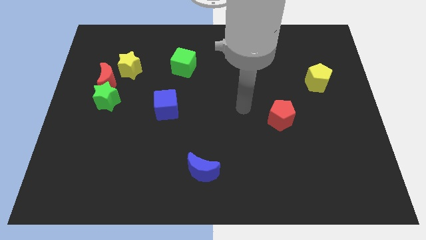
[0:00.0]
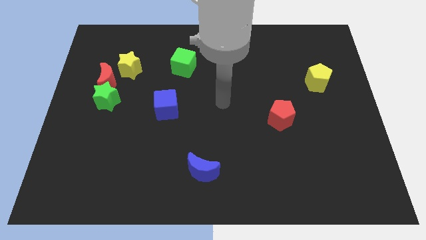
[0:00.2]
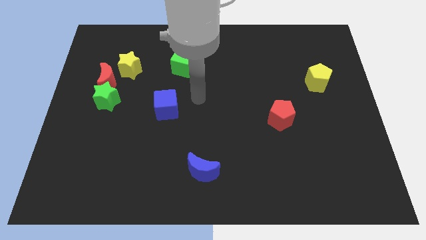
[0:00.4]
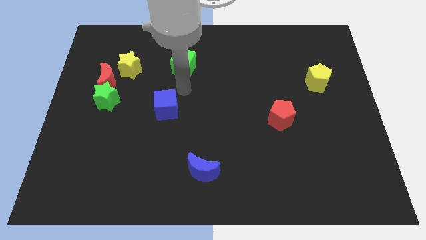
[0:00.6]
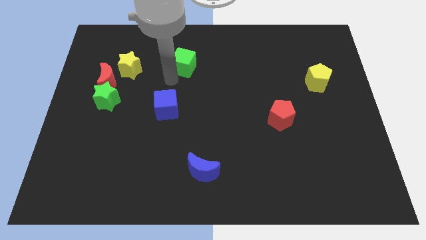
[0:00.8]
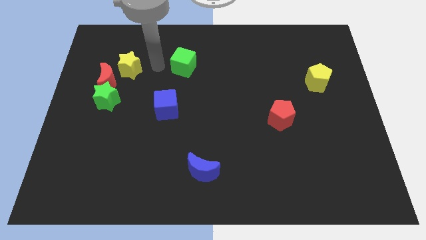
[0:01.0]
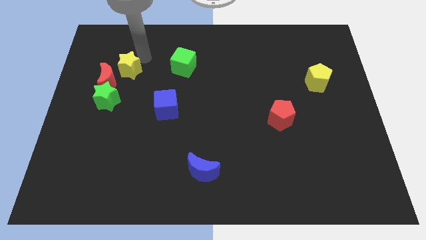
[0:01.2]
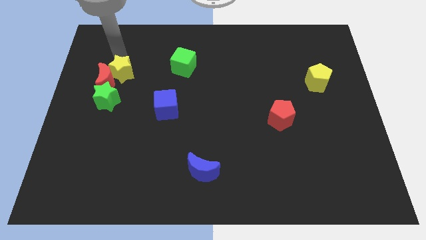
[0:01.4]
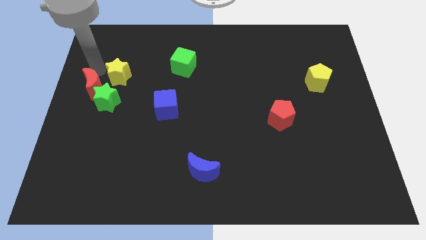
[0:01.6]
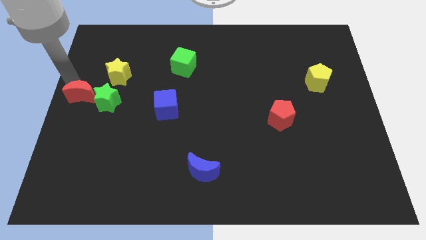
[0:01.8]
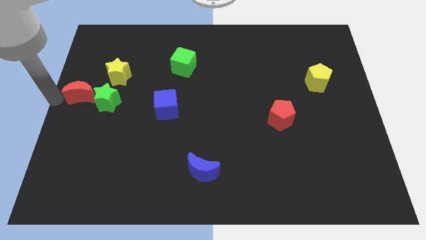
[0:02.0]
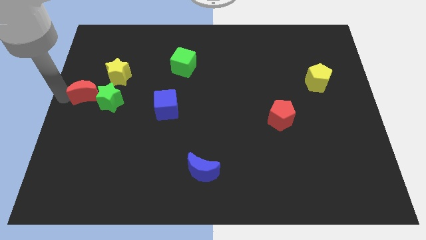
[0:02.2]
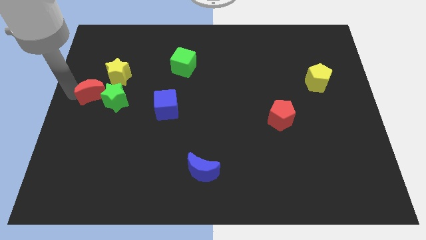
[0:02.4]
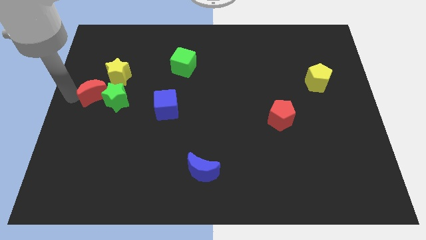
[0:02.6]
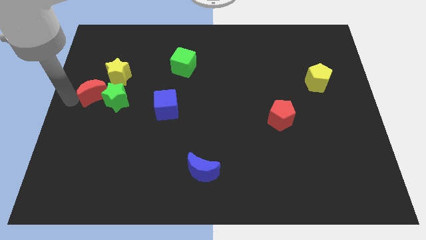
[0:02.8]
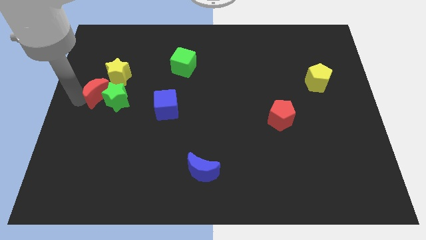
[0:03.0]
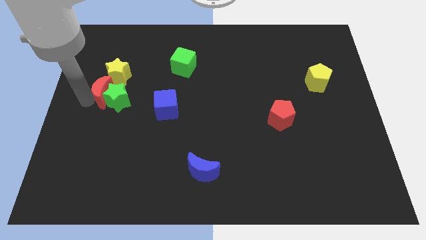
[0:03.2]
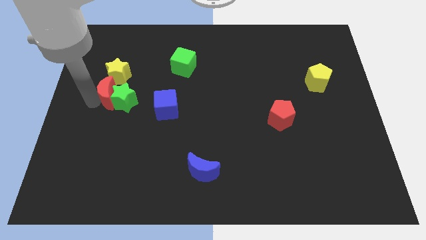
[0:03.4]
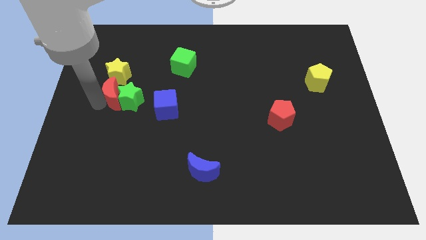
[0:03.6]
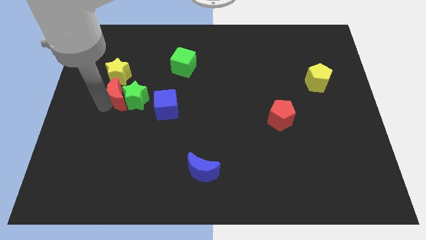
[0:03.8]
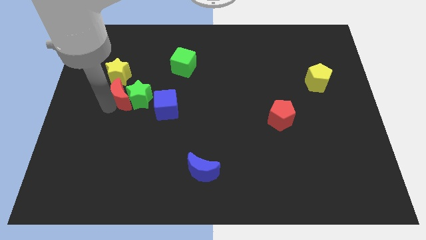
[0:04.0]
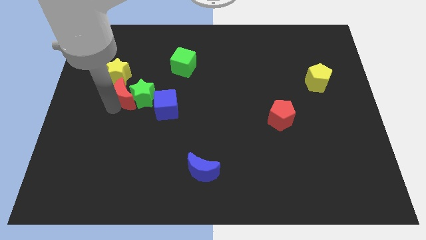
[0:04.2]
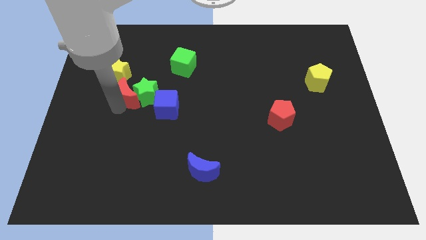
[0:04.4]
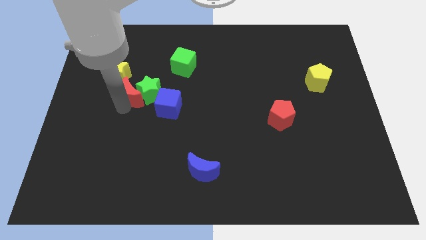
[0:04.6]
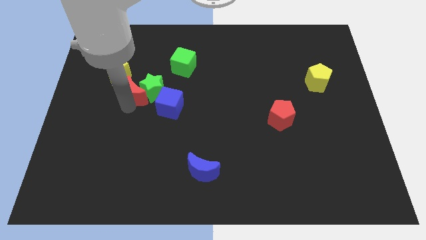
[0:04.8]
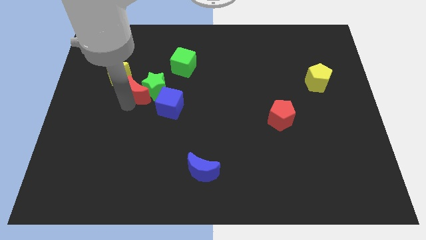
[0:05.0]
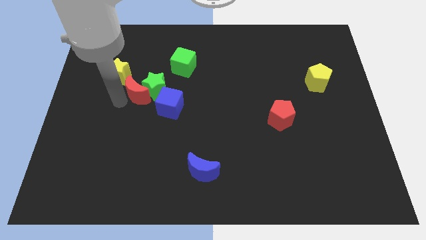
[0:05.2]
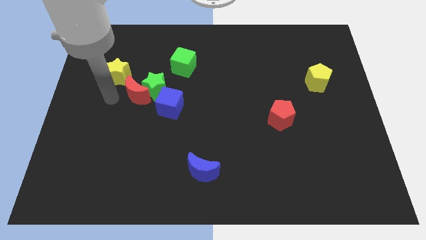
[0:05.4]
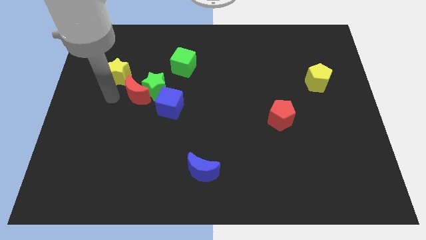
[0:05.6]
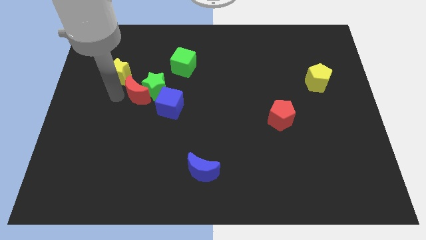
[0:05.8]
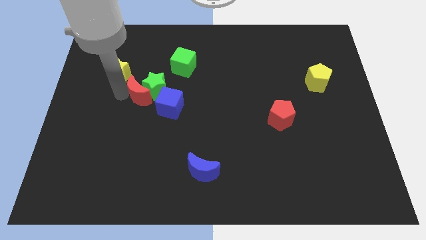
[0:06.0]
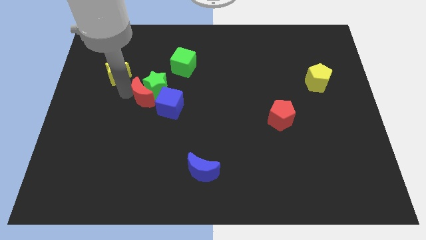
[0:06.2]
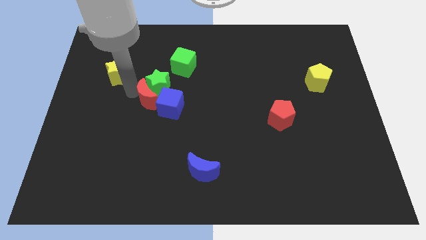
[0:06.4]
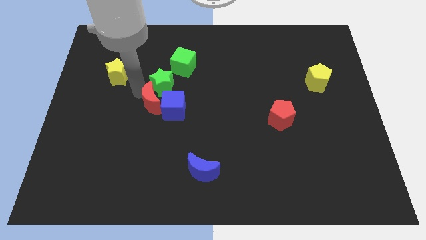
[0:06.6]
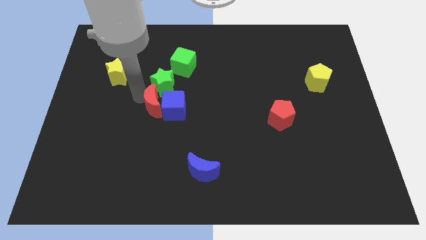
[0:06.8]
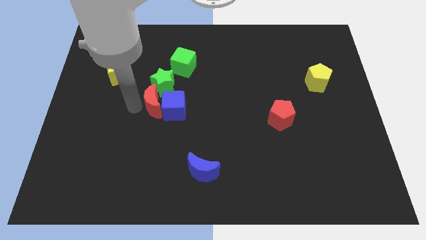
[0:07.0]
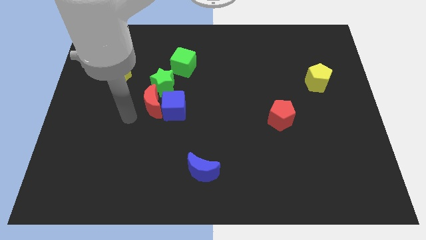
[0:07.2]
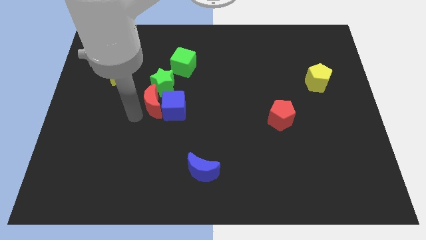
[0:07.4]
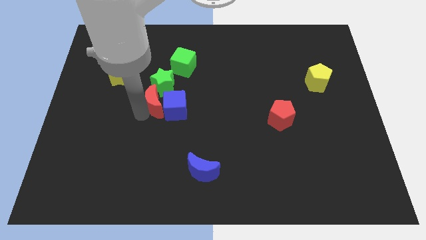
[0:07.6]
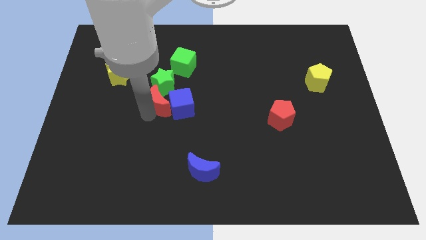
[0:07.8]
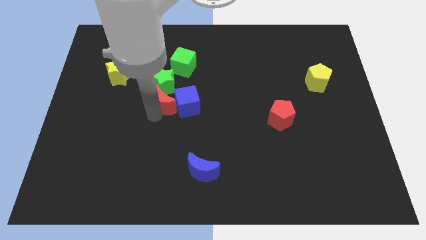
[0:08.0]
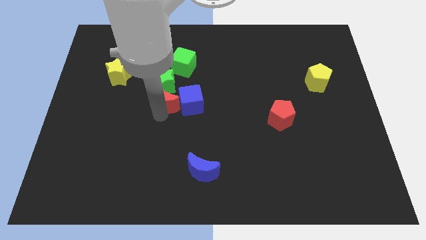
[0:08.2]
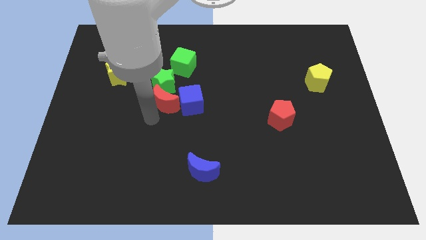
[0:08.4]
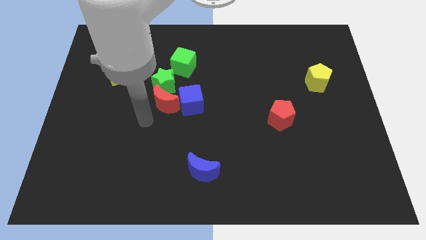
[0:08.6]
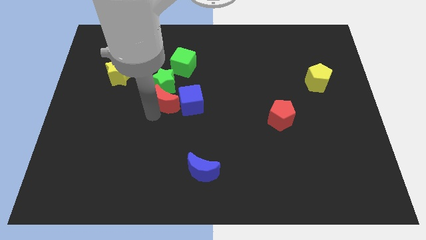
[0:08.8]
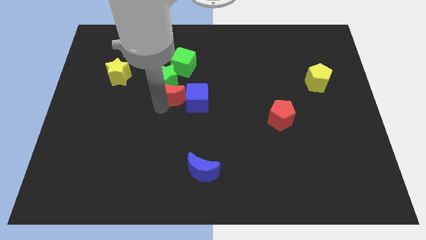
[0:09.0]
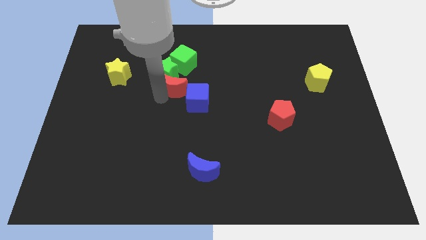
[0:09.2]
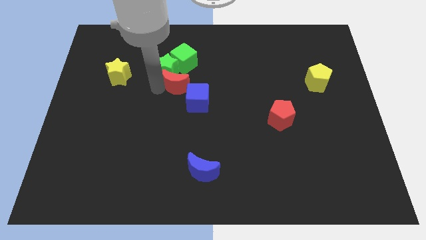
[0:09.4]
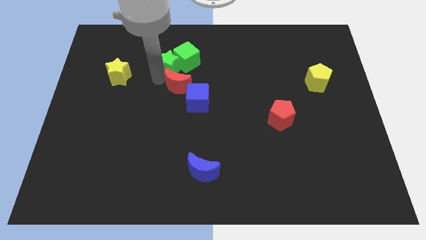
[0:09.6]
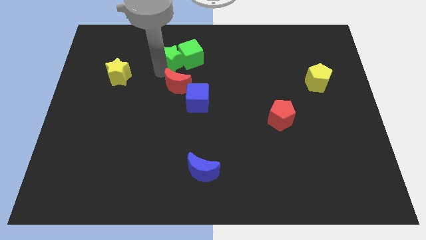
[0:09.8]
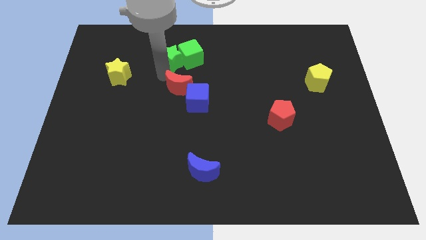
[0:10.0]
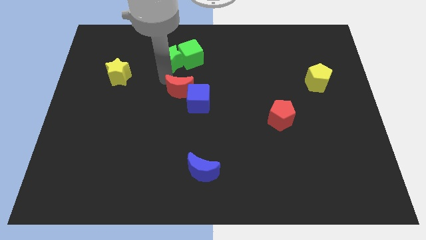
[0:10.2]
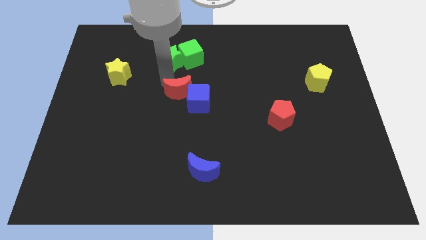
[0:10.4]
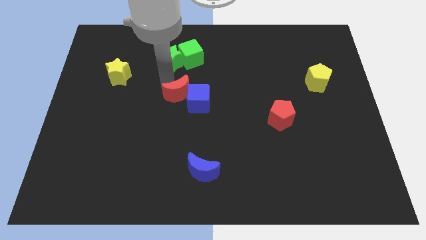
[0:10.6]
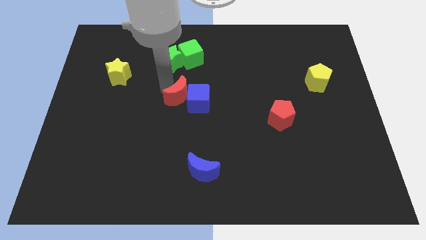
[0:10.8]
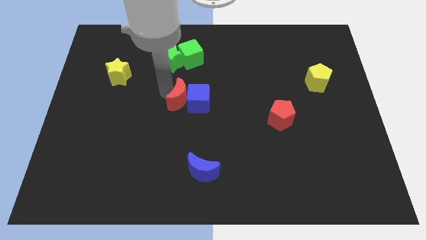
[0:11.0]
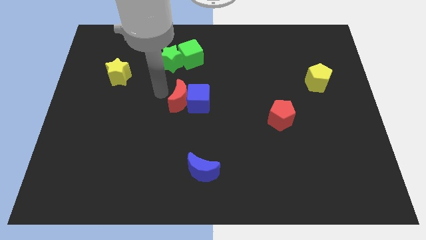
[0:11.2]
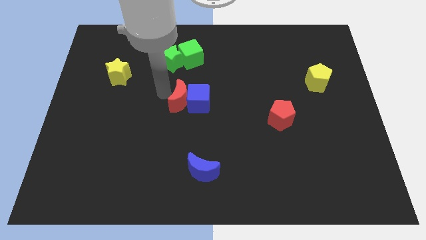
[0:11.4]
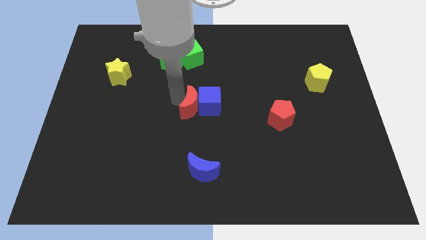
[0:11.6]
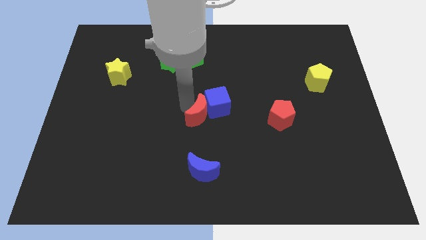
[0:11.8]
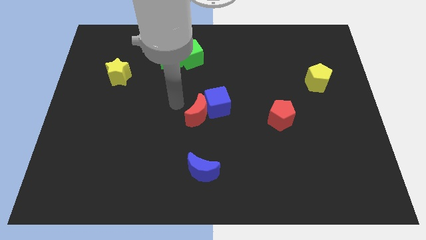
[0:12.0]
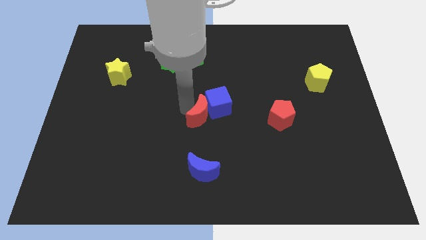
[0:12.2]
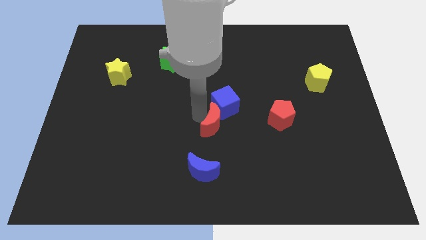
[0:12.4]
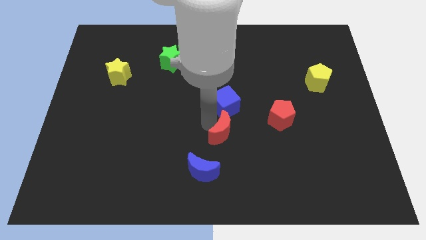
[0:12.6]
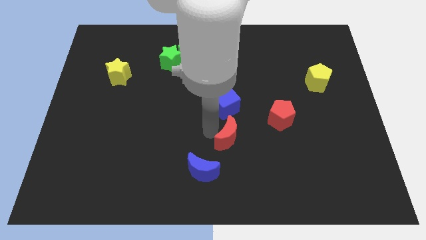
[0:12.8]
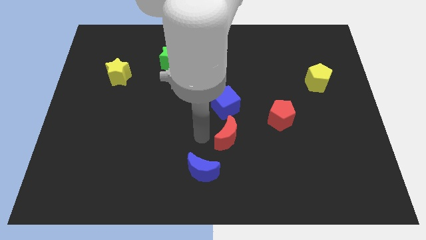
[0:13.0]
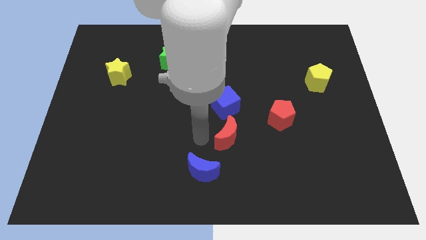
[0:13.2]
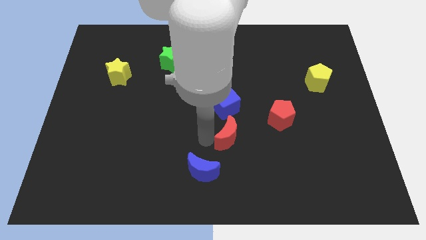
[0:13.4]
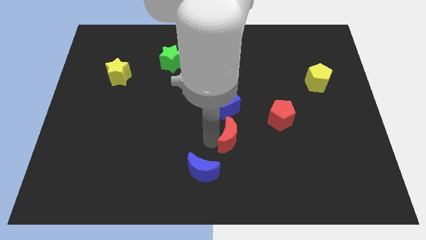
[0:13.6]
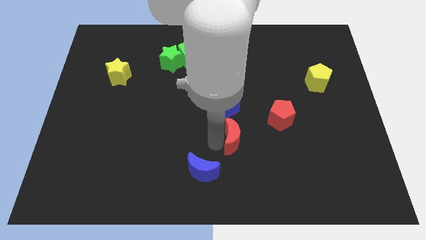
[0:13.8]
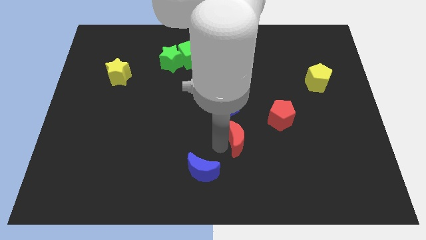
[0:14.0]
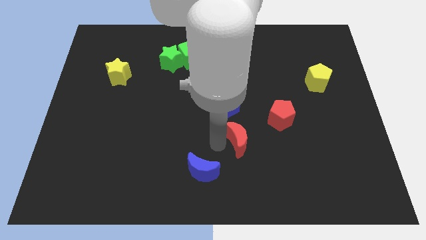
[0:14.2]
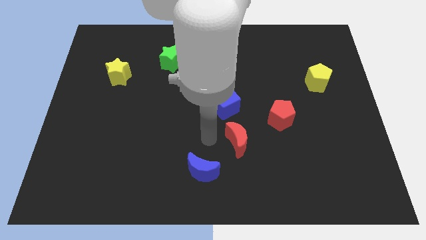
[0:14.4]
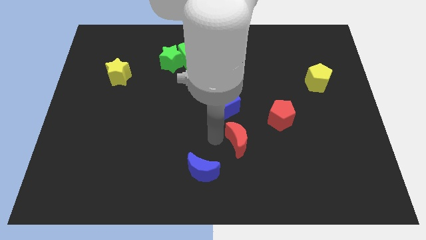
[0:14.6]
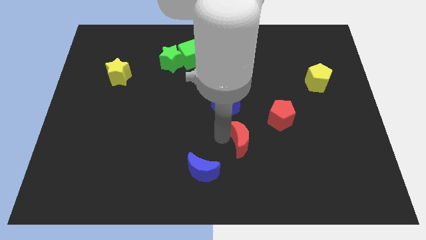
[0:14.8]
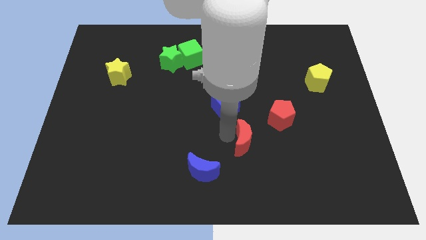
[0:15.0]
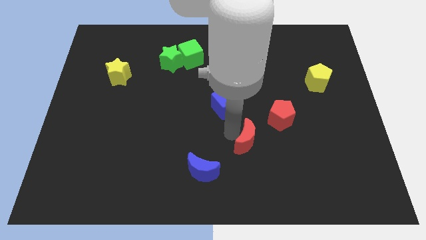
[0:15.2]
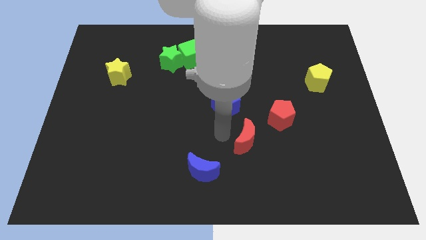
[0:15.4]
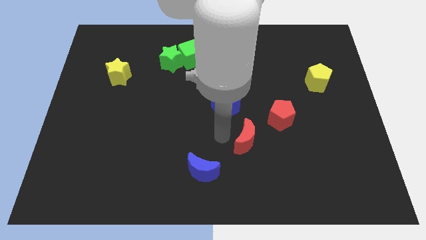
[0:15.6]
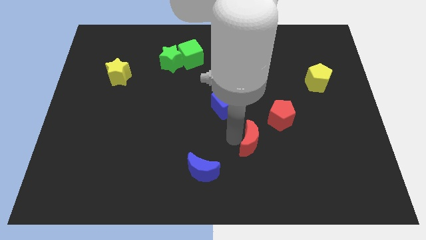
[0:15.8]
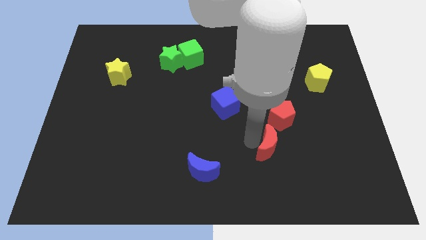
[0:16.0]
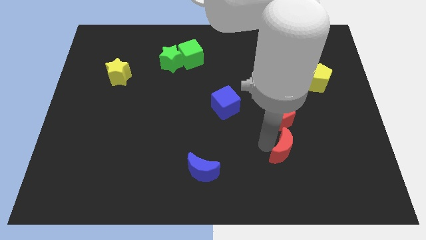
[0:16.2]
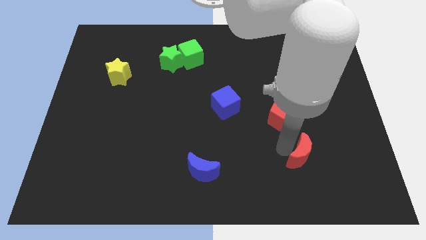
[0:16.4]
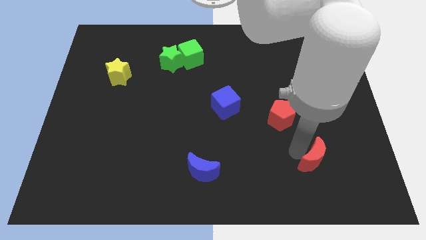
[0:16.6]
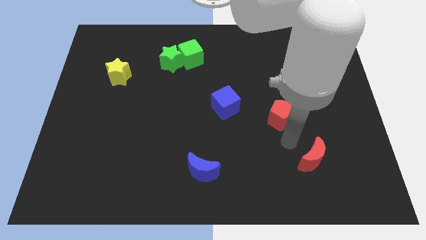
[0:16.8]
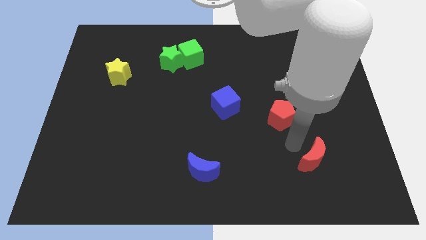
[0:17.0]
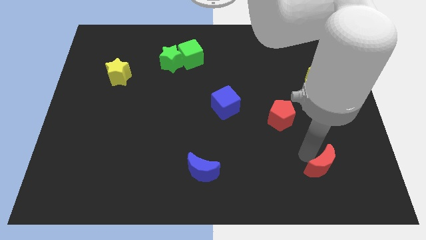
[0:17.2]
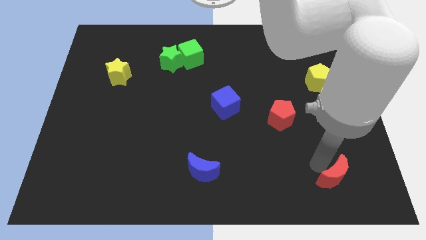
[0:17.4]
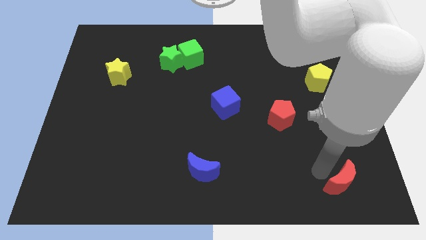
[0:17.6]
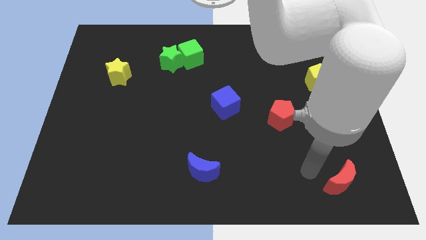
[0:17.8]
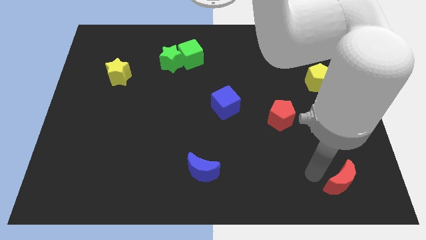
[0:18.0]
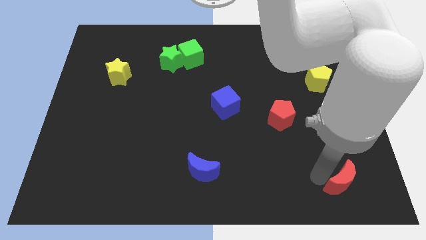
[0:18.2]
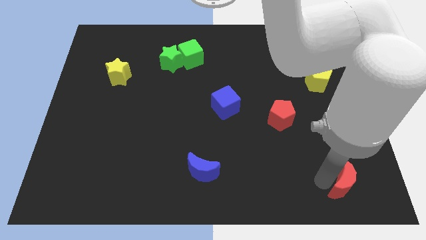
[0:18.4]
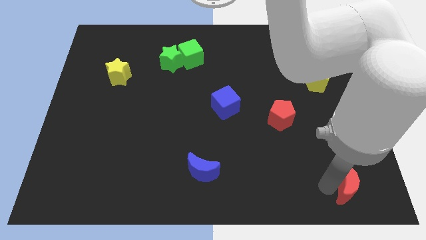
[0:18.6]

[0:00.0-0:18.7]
put the red moon to the bottom right corner
